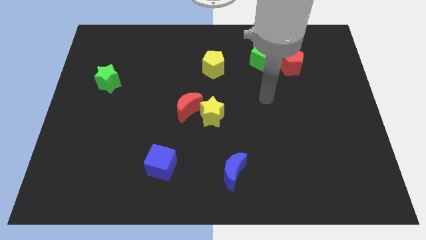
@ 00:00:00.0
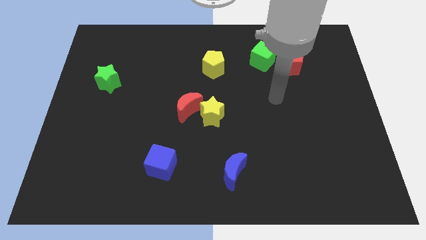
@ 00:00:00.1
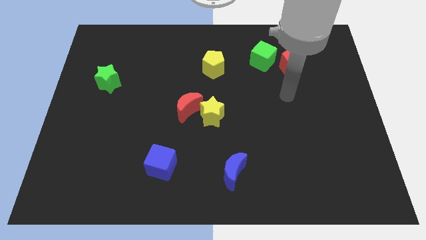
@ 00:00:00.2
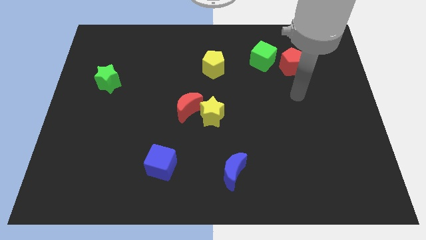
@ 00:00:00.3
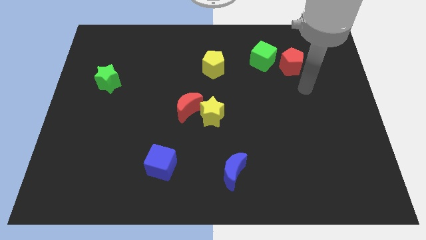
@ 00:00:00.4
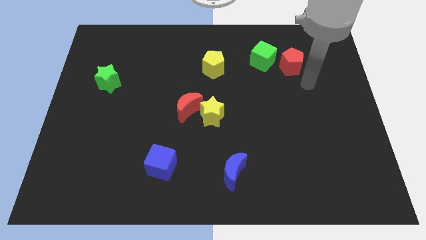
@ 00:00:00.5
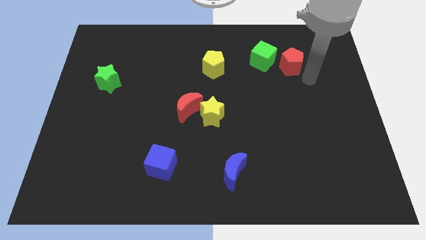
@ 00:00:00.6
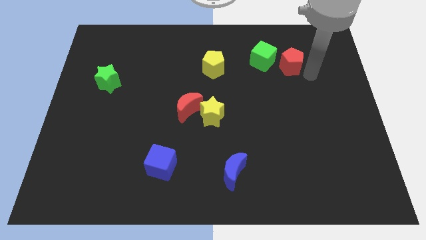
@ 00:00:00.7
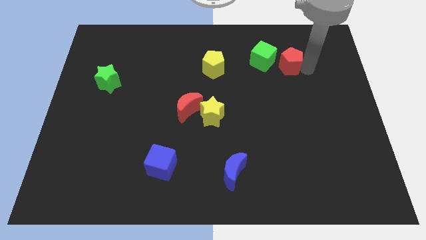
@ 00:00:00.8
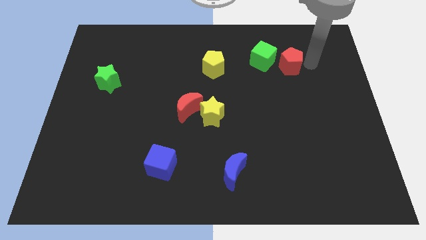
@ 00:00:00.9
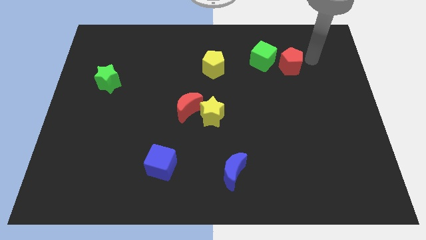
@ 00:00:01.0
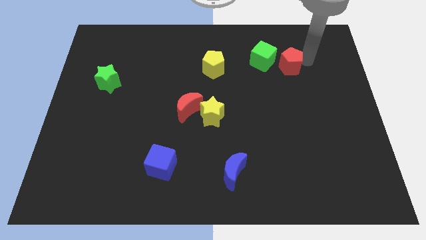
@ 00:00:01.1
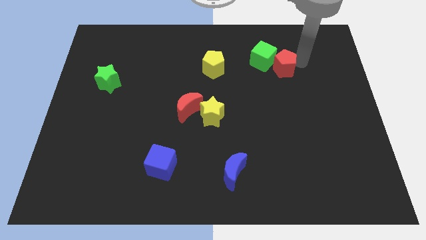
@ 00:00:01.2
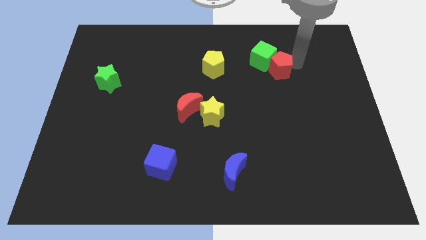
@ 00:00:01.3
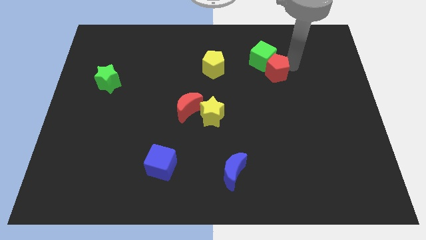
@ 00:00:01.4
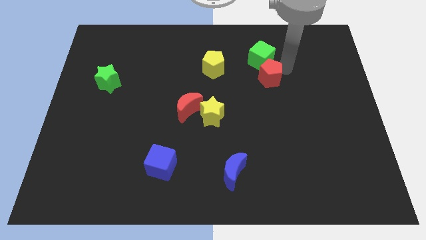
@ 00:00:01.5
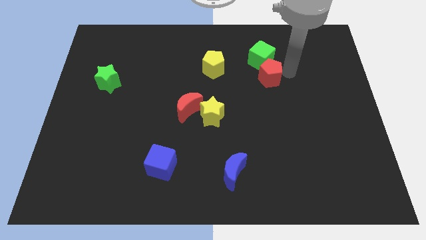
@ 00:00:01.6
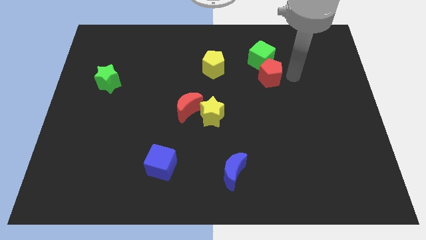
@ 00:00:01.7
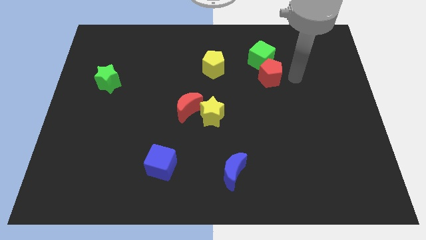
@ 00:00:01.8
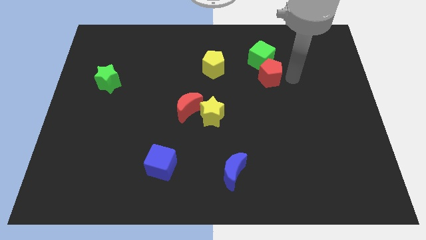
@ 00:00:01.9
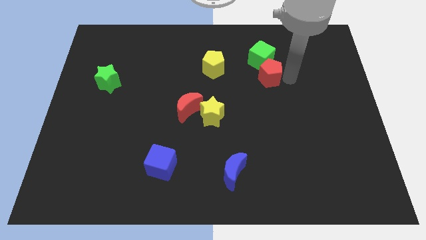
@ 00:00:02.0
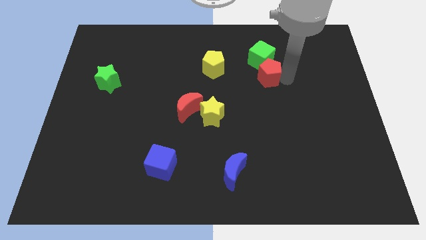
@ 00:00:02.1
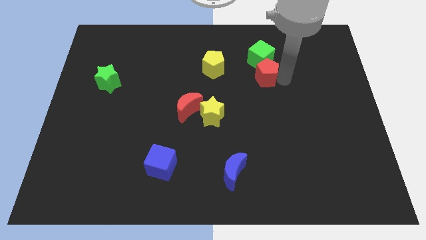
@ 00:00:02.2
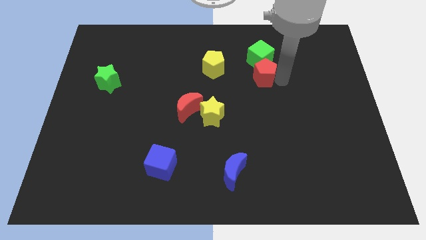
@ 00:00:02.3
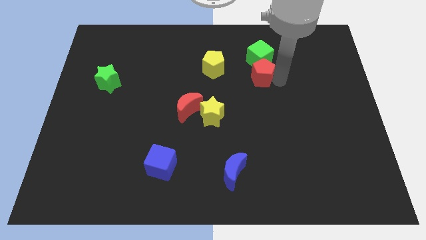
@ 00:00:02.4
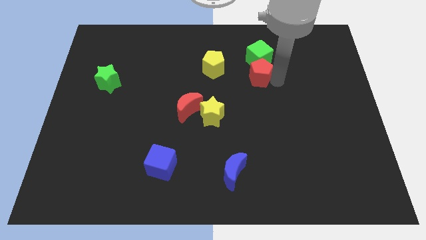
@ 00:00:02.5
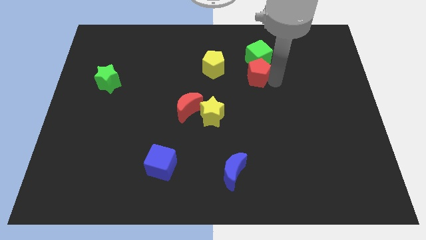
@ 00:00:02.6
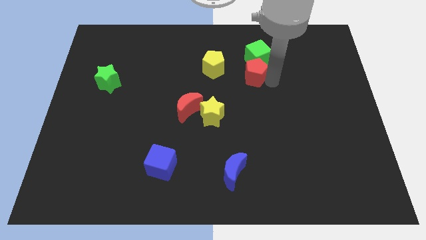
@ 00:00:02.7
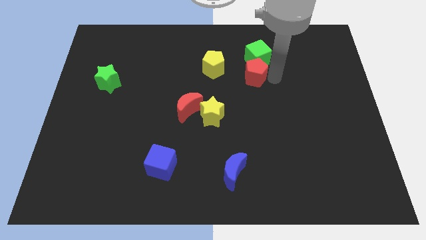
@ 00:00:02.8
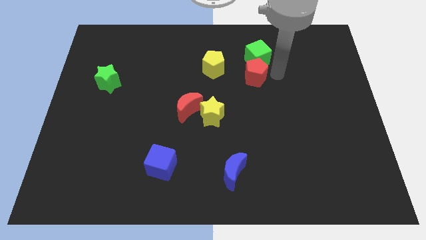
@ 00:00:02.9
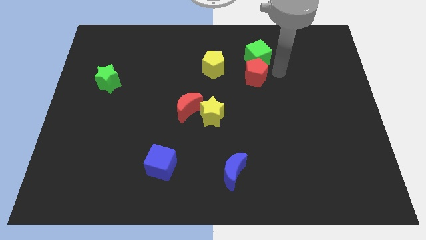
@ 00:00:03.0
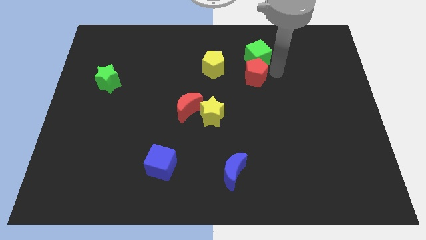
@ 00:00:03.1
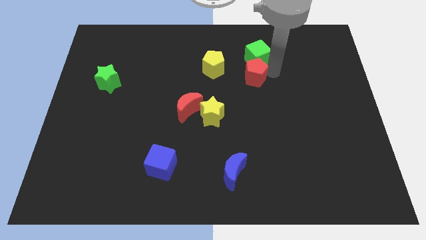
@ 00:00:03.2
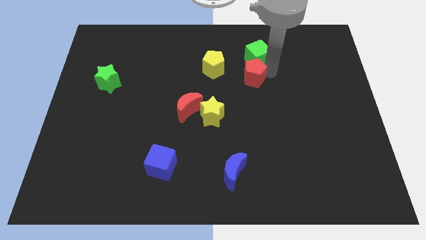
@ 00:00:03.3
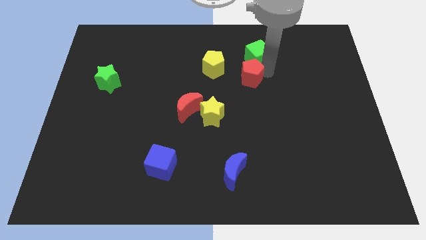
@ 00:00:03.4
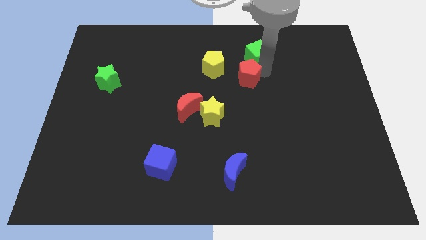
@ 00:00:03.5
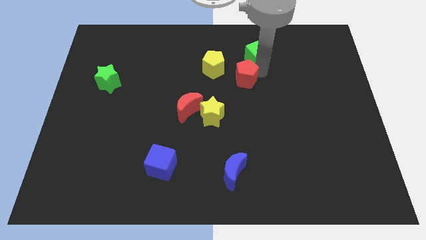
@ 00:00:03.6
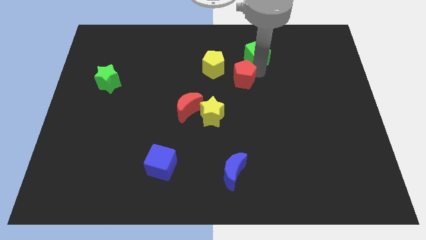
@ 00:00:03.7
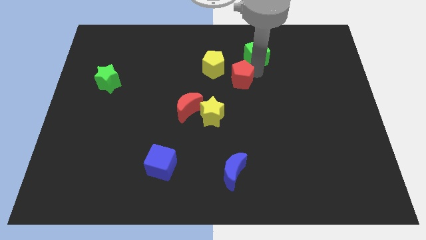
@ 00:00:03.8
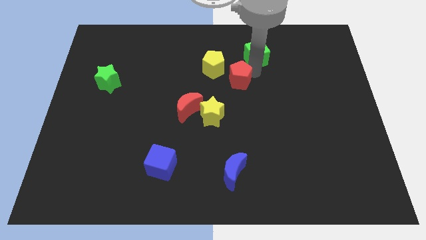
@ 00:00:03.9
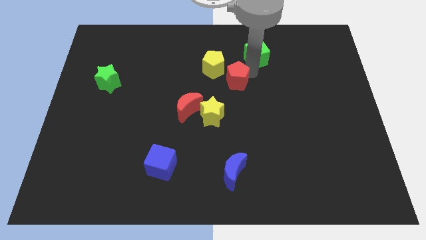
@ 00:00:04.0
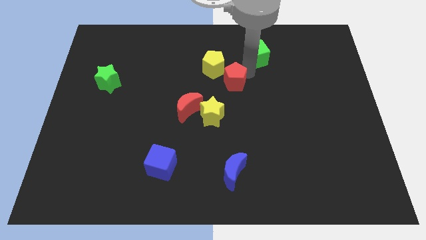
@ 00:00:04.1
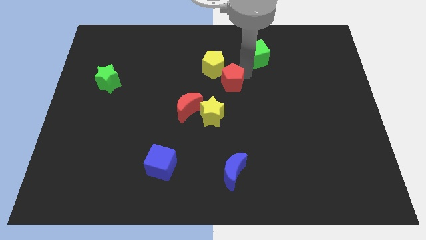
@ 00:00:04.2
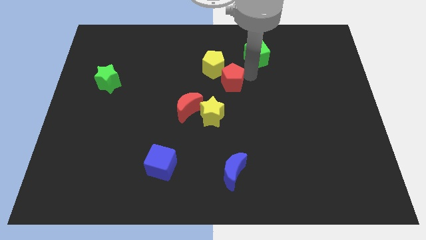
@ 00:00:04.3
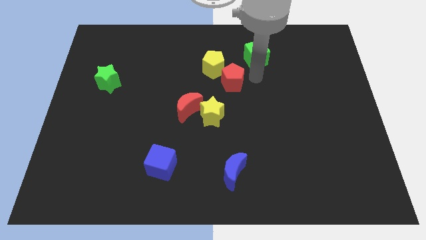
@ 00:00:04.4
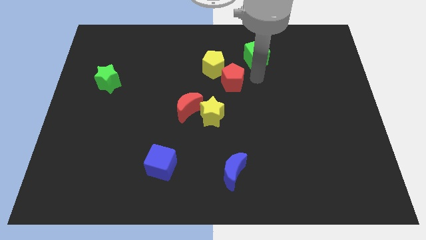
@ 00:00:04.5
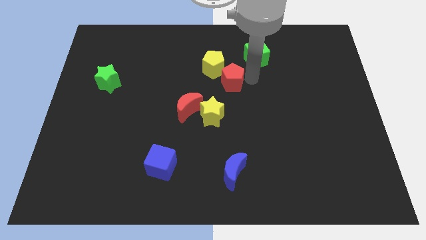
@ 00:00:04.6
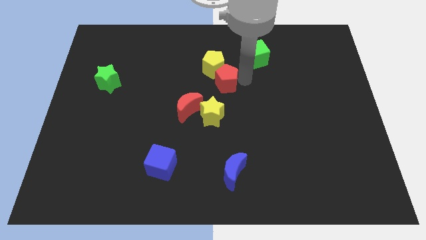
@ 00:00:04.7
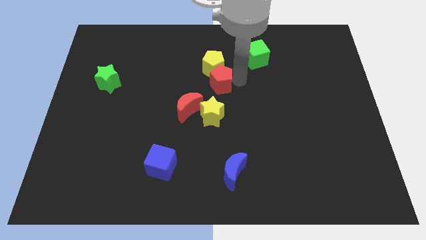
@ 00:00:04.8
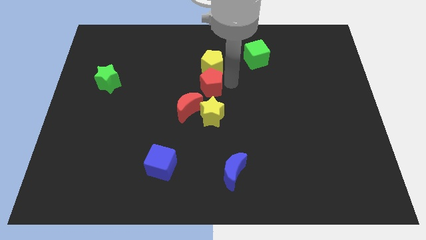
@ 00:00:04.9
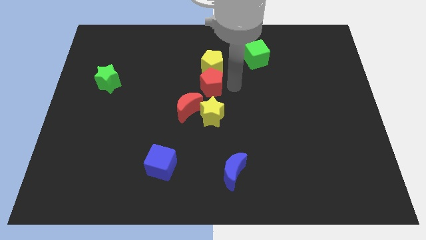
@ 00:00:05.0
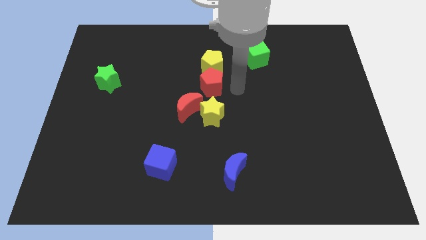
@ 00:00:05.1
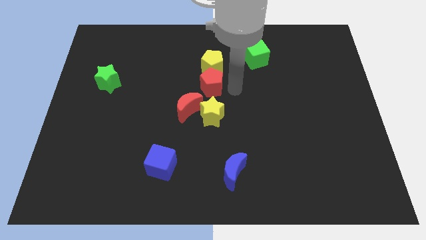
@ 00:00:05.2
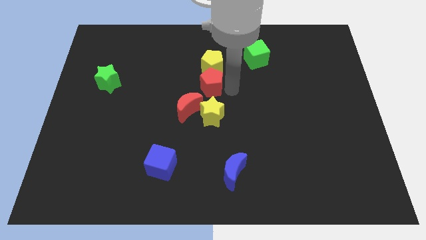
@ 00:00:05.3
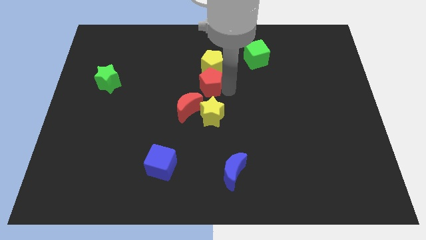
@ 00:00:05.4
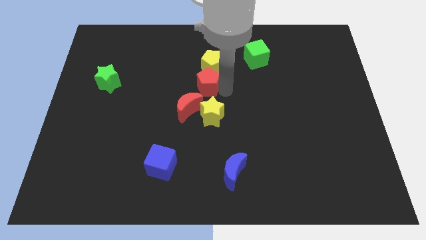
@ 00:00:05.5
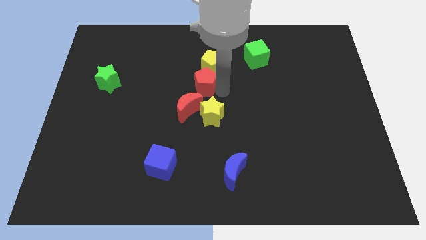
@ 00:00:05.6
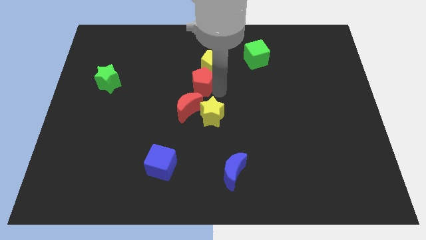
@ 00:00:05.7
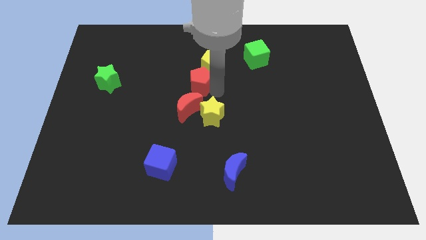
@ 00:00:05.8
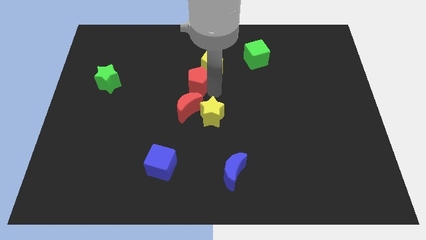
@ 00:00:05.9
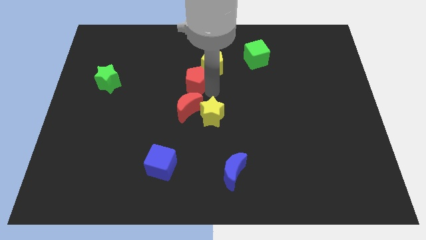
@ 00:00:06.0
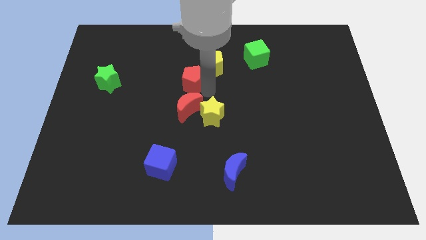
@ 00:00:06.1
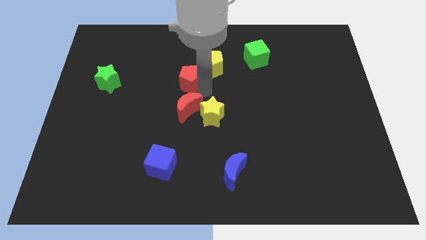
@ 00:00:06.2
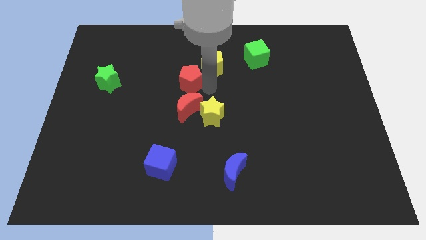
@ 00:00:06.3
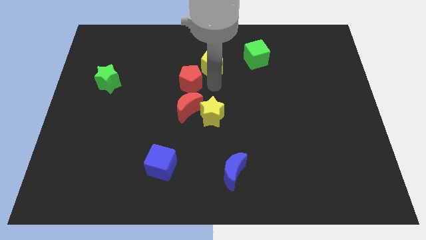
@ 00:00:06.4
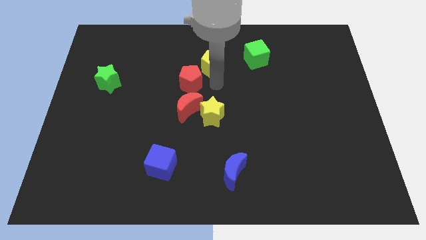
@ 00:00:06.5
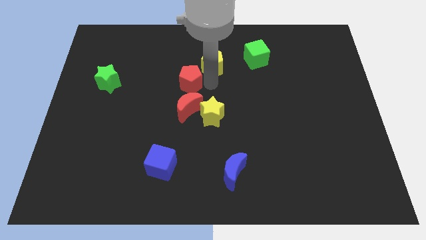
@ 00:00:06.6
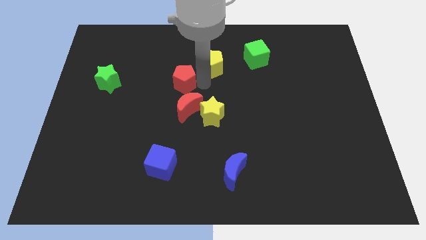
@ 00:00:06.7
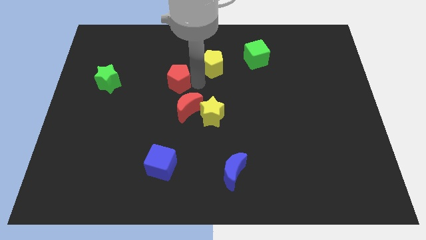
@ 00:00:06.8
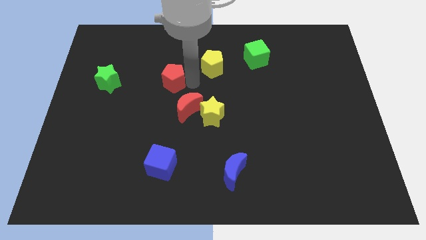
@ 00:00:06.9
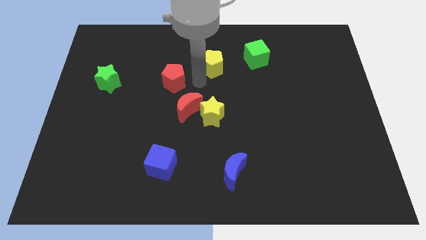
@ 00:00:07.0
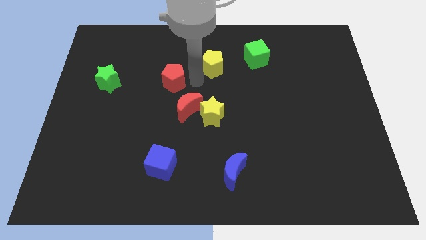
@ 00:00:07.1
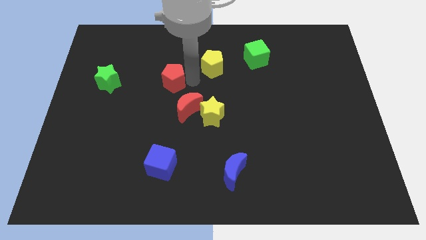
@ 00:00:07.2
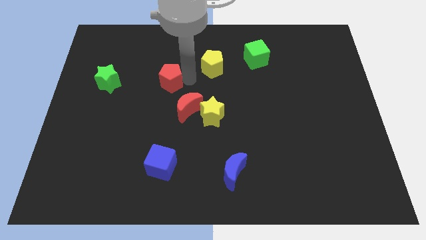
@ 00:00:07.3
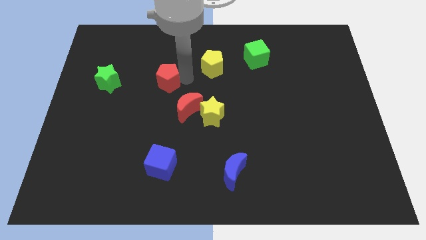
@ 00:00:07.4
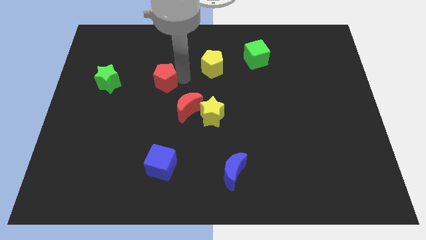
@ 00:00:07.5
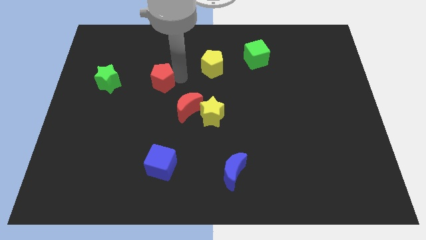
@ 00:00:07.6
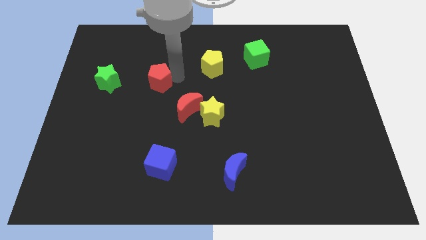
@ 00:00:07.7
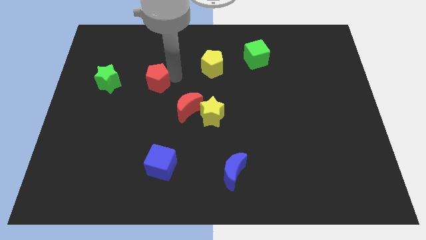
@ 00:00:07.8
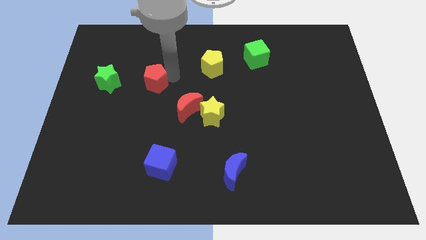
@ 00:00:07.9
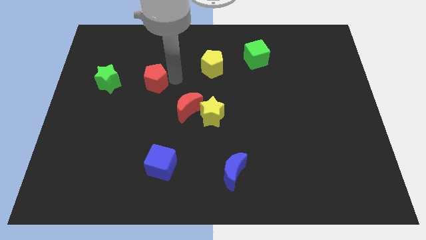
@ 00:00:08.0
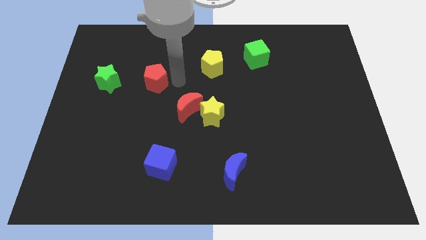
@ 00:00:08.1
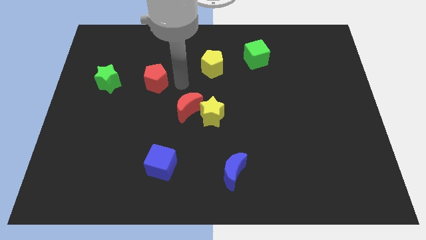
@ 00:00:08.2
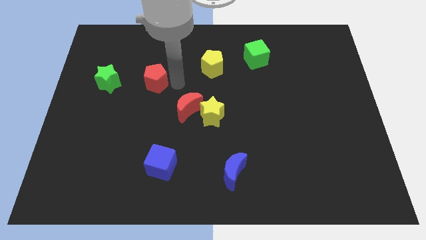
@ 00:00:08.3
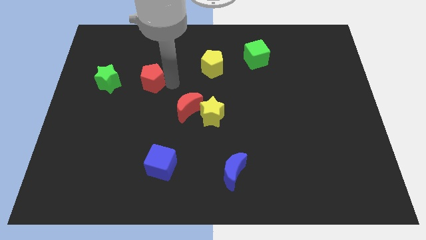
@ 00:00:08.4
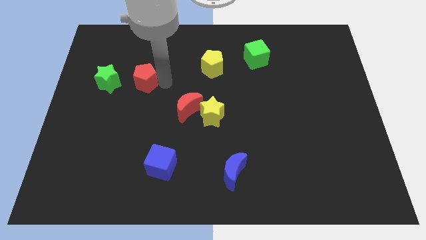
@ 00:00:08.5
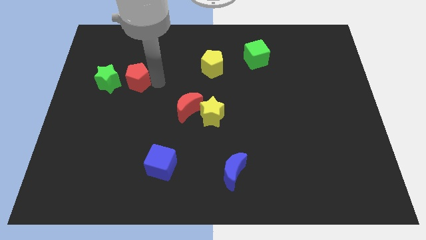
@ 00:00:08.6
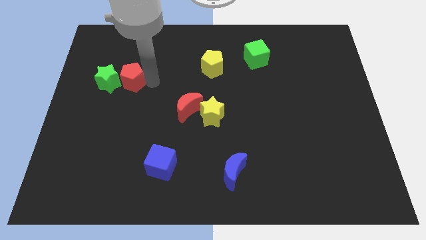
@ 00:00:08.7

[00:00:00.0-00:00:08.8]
slide the red pentagon towards the green star
